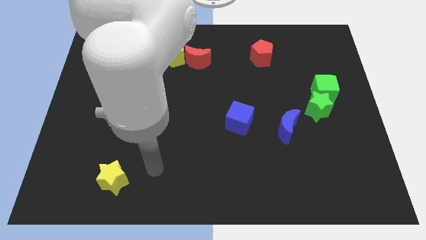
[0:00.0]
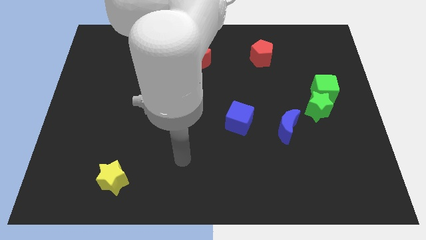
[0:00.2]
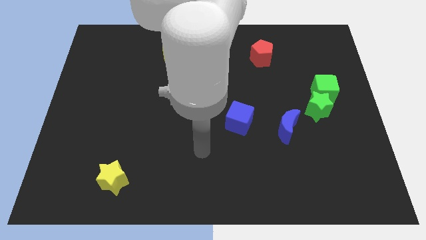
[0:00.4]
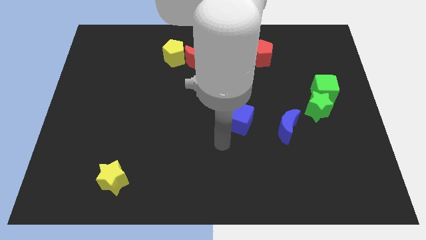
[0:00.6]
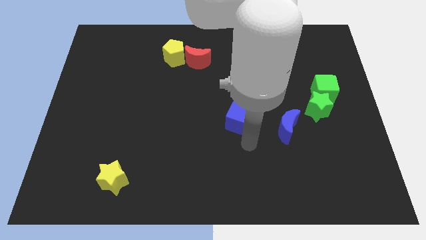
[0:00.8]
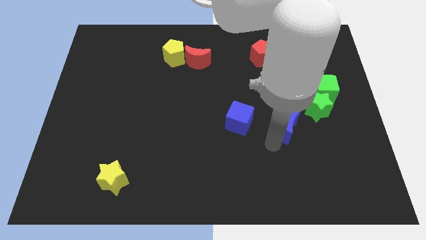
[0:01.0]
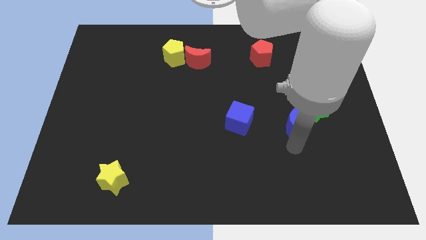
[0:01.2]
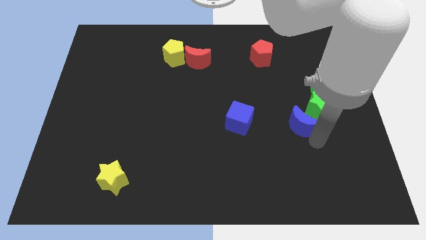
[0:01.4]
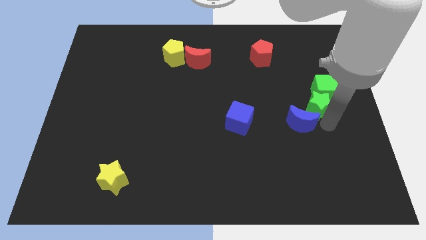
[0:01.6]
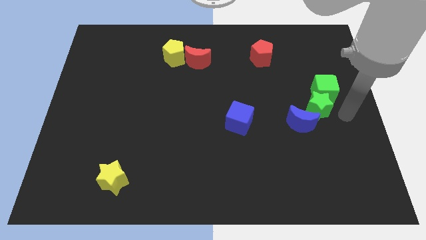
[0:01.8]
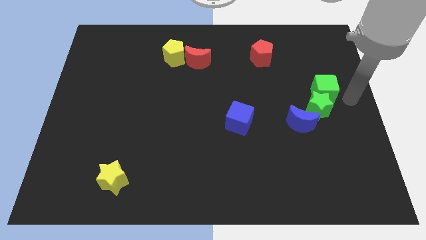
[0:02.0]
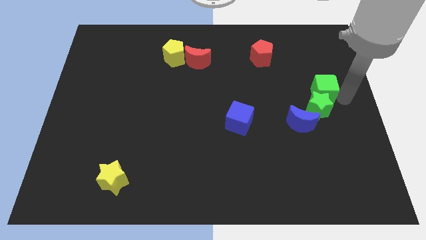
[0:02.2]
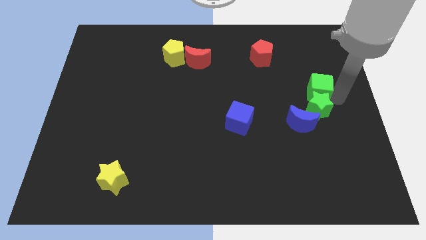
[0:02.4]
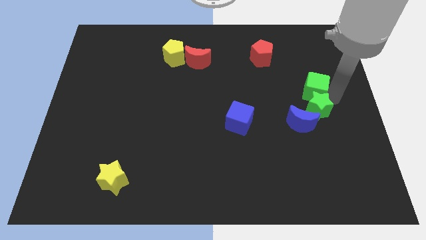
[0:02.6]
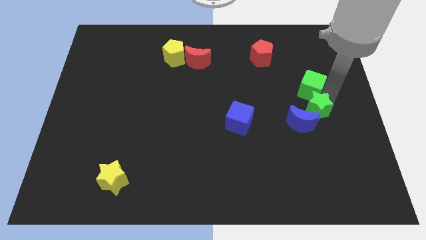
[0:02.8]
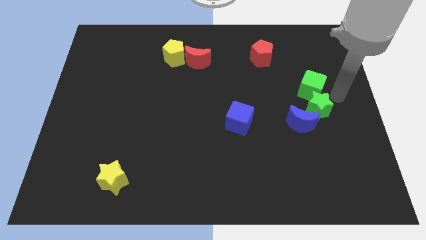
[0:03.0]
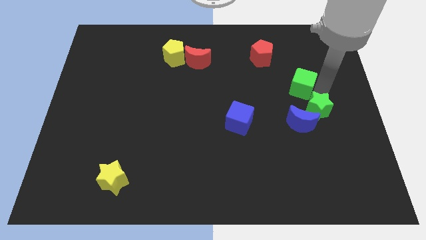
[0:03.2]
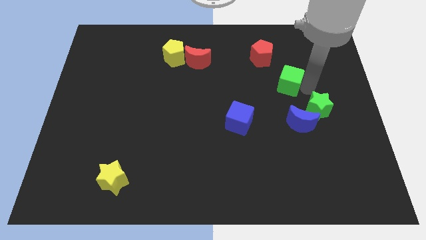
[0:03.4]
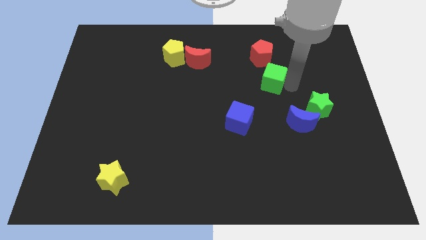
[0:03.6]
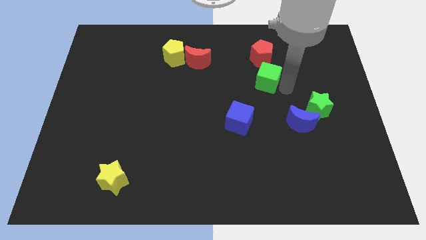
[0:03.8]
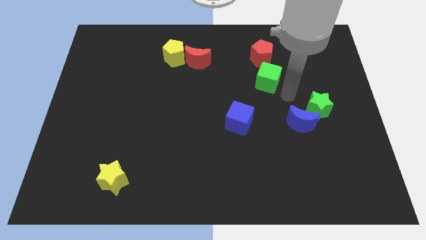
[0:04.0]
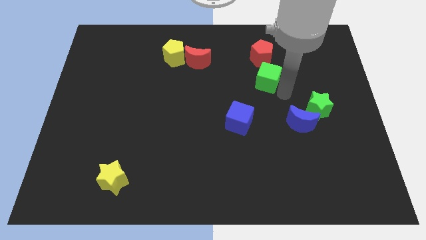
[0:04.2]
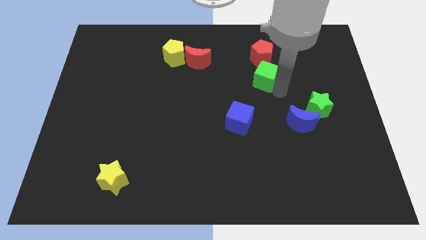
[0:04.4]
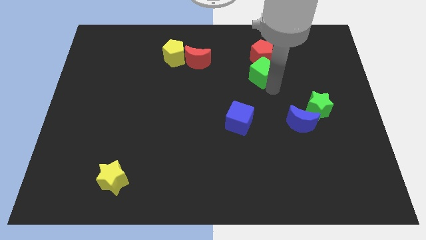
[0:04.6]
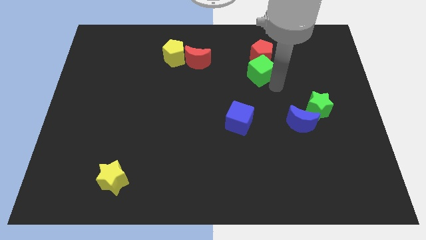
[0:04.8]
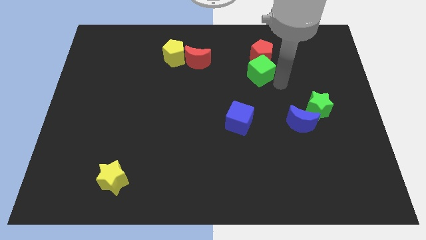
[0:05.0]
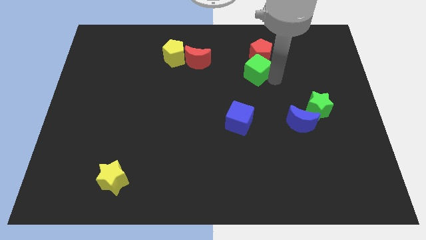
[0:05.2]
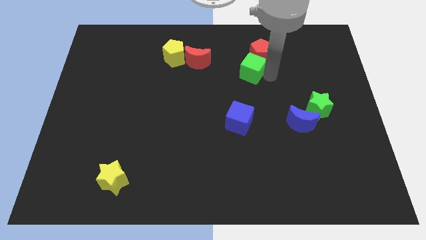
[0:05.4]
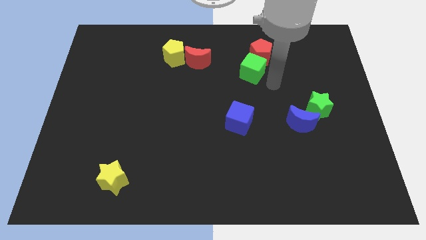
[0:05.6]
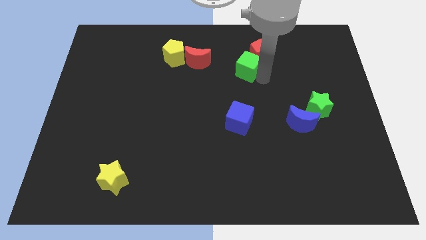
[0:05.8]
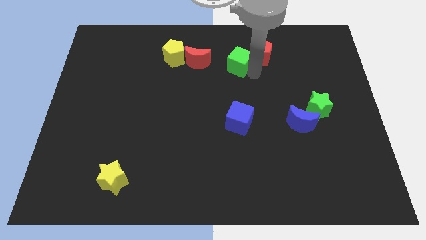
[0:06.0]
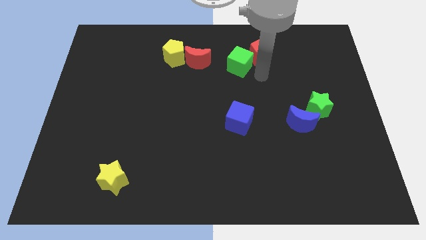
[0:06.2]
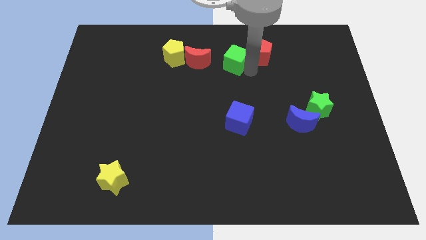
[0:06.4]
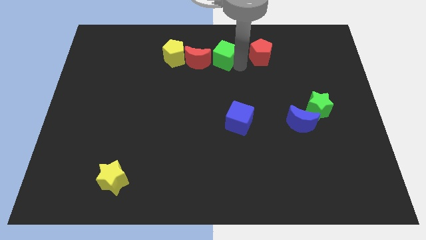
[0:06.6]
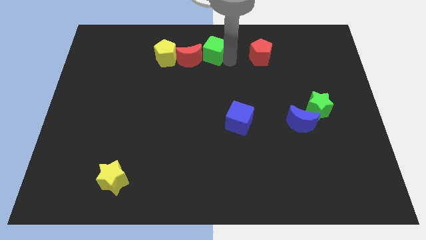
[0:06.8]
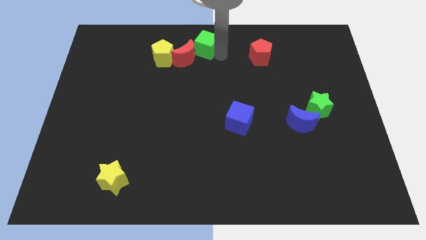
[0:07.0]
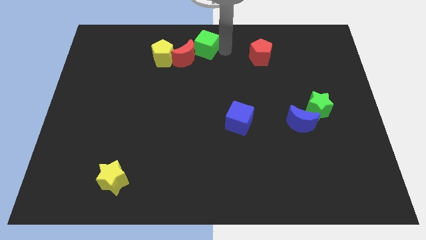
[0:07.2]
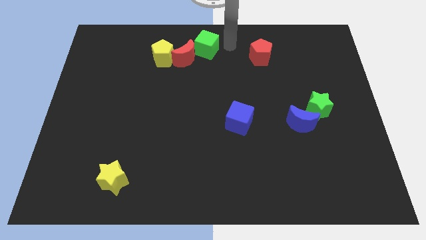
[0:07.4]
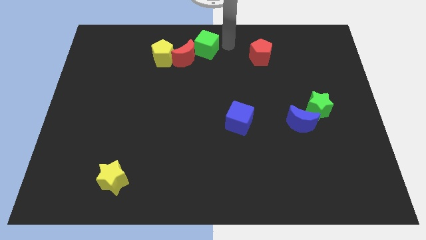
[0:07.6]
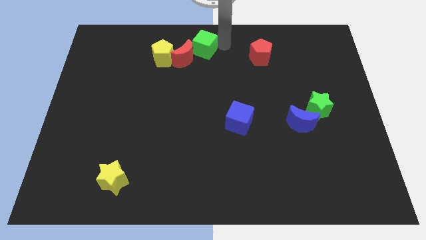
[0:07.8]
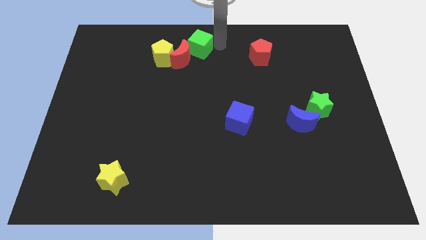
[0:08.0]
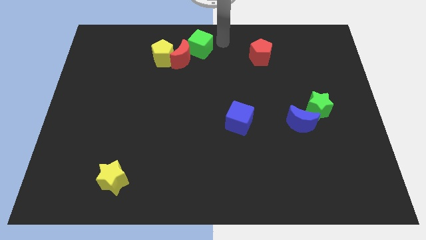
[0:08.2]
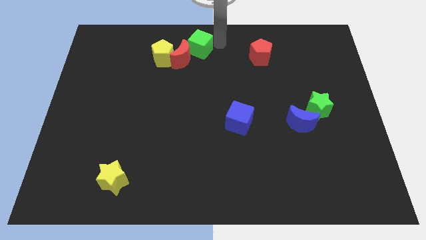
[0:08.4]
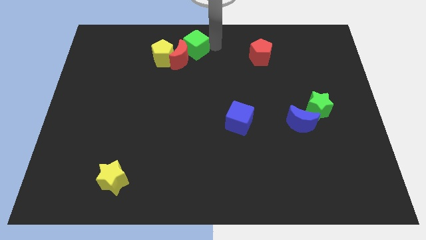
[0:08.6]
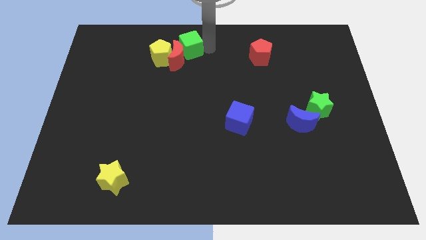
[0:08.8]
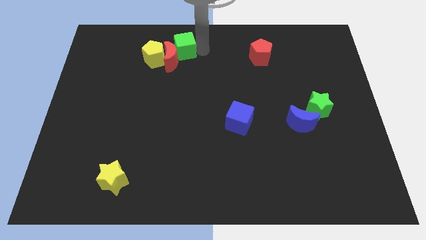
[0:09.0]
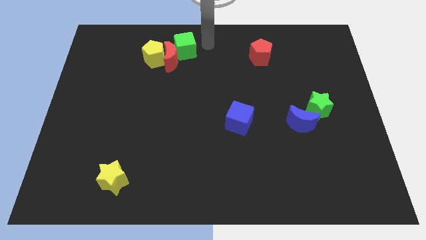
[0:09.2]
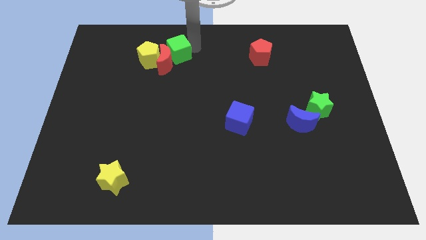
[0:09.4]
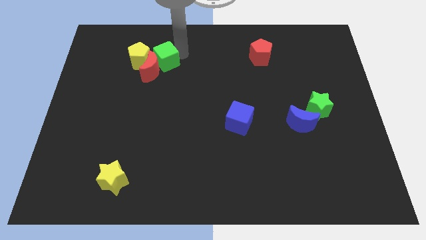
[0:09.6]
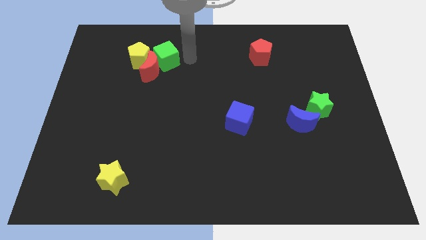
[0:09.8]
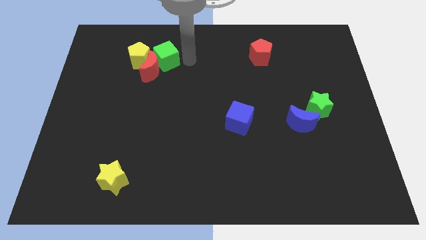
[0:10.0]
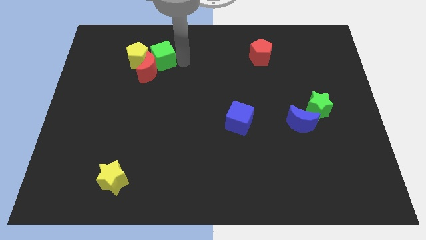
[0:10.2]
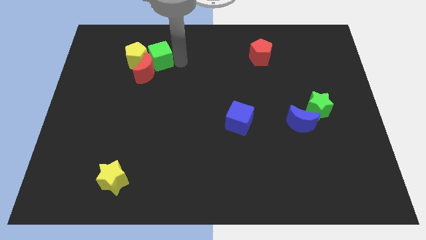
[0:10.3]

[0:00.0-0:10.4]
put the green cube next to the yellow pentagon

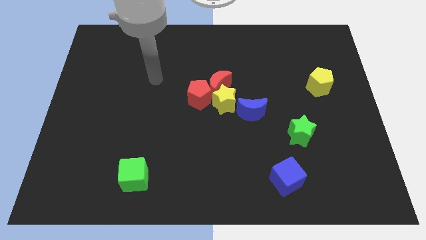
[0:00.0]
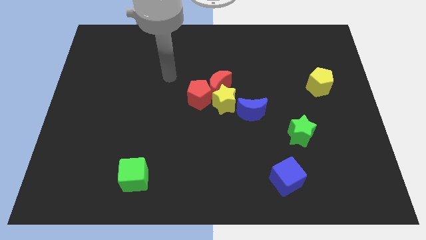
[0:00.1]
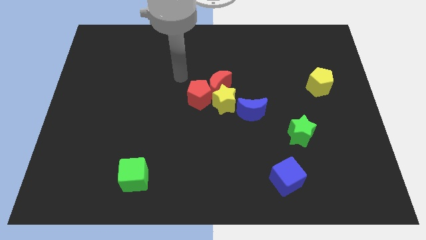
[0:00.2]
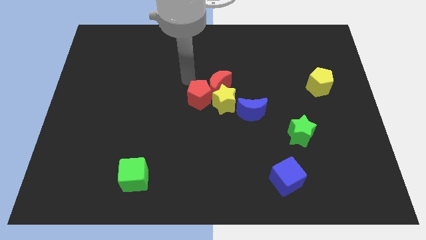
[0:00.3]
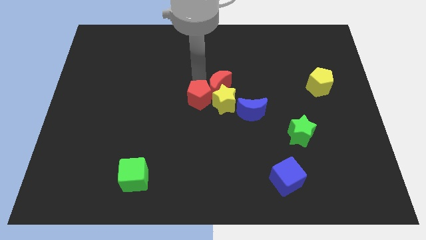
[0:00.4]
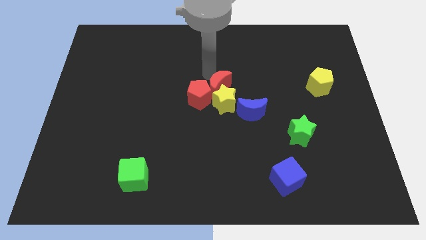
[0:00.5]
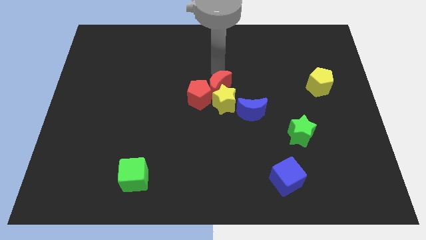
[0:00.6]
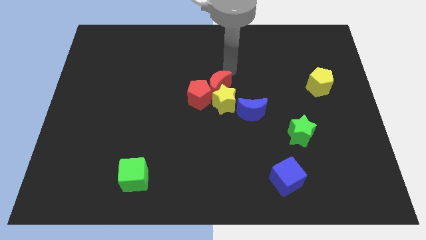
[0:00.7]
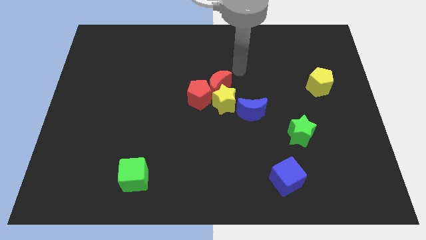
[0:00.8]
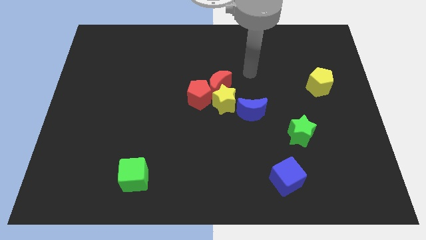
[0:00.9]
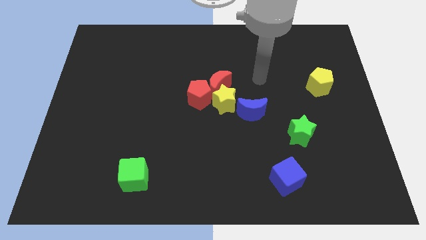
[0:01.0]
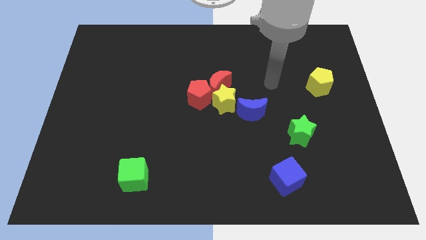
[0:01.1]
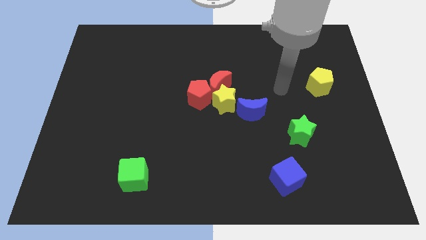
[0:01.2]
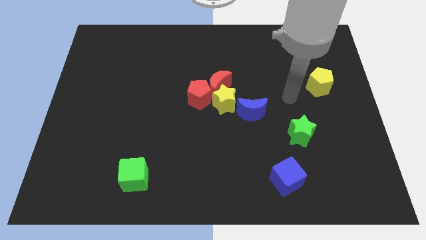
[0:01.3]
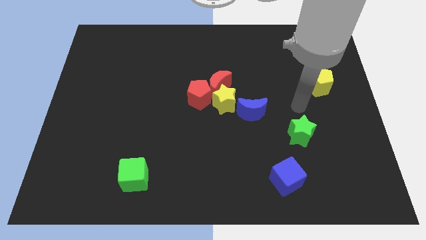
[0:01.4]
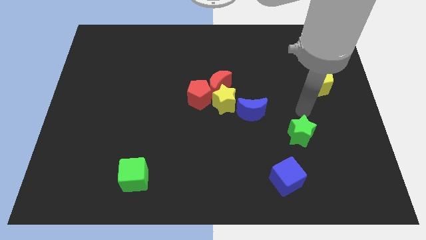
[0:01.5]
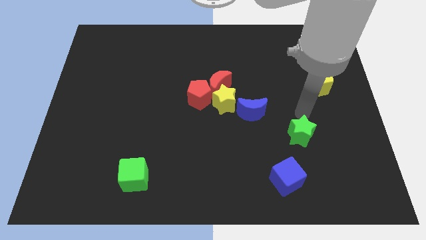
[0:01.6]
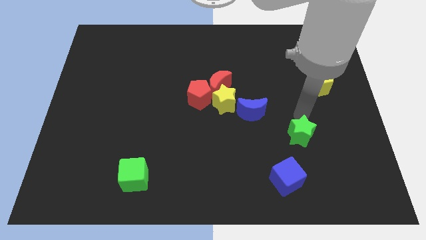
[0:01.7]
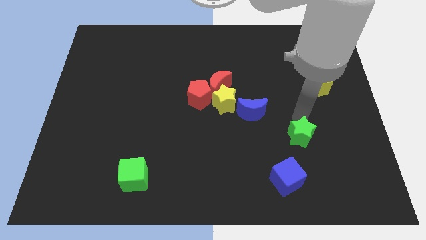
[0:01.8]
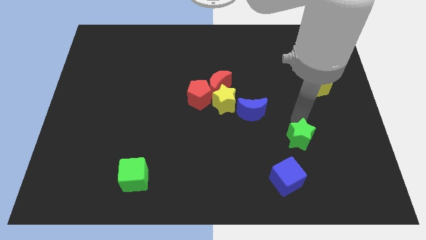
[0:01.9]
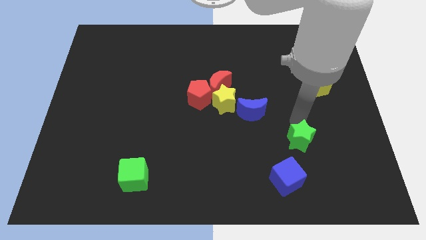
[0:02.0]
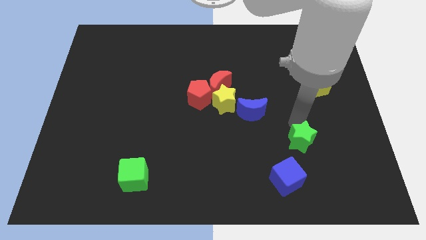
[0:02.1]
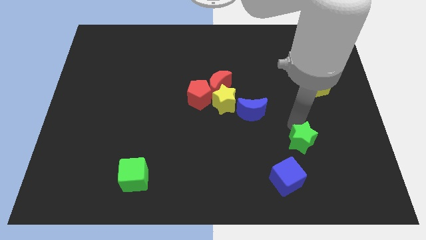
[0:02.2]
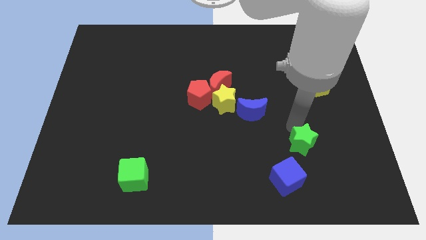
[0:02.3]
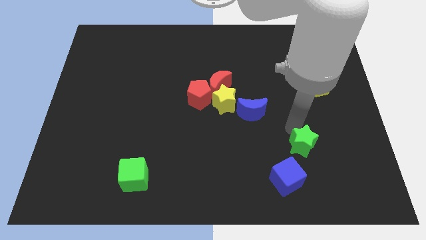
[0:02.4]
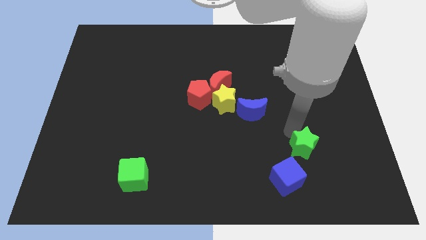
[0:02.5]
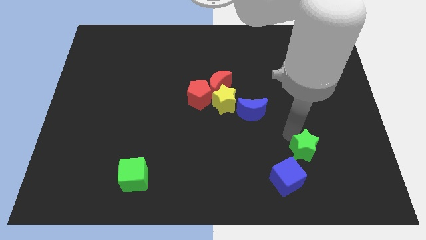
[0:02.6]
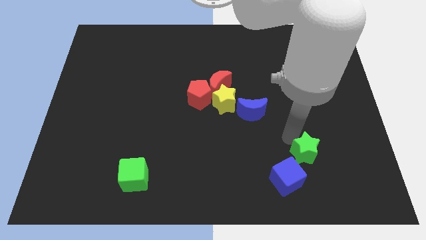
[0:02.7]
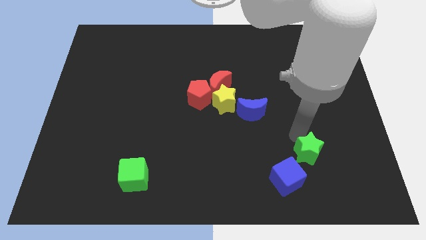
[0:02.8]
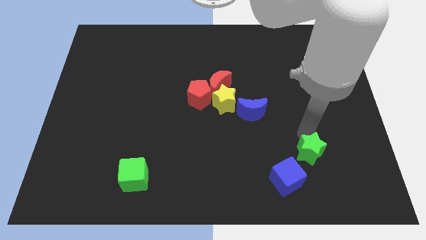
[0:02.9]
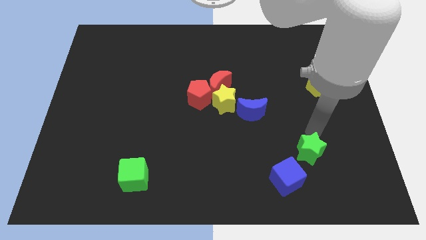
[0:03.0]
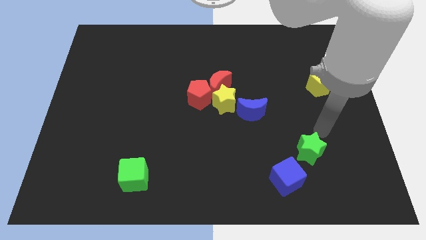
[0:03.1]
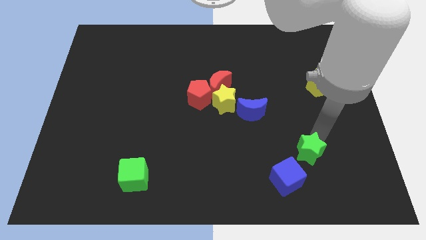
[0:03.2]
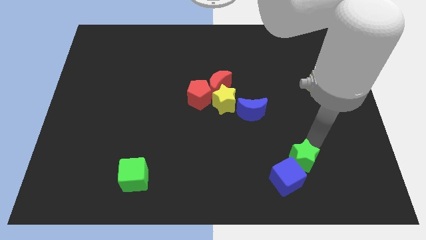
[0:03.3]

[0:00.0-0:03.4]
move the green star to the blue cube
